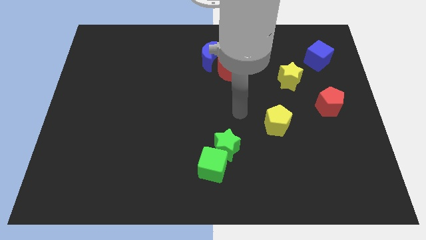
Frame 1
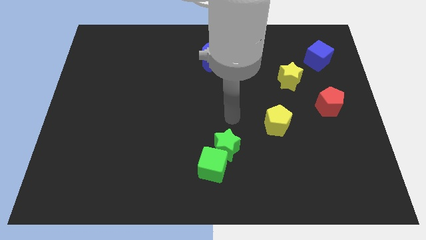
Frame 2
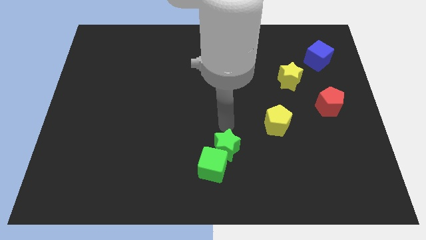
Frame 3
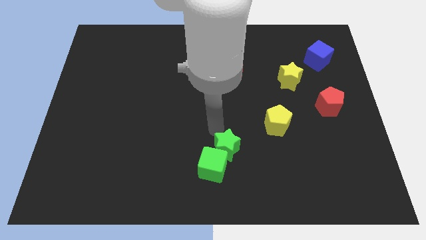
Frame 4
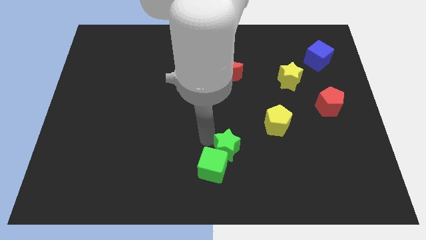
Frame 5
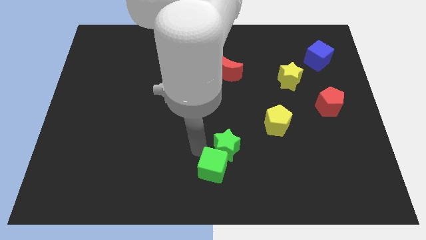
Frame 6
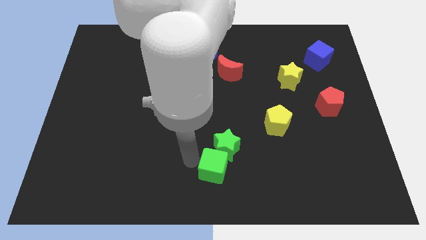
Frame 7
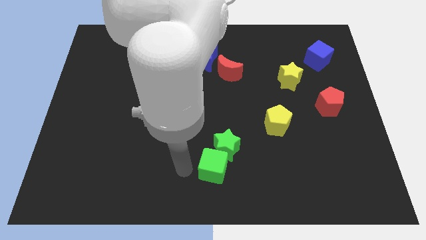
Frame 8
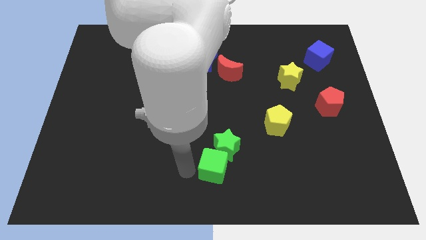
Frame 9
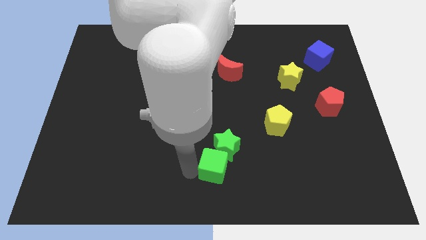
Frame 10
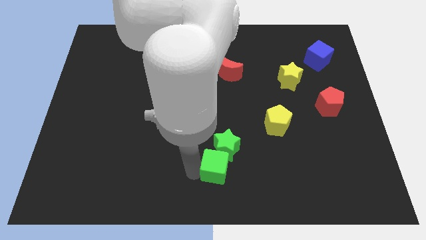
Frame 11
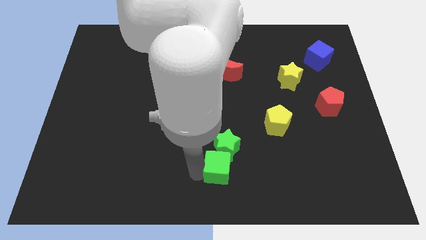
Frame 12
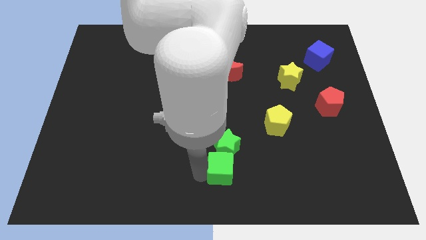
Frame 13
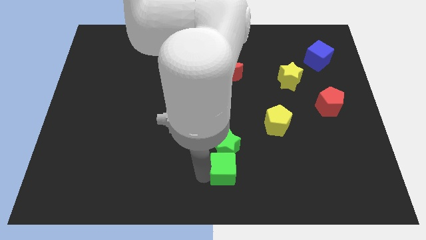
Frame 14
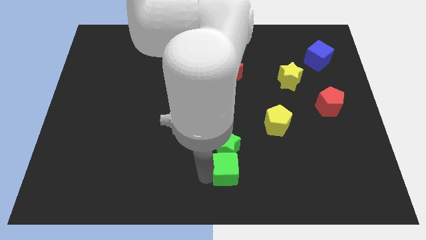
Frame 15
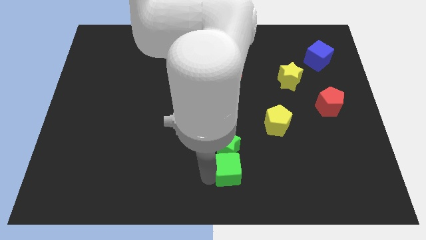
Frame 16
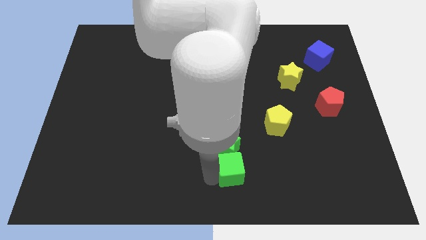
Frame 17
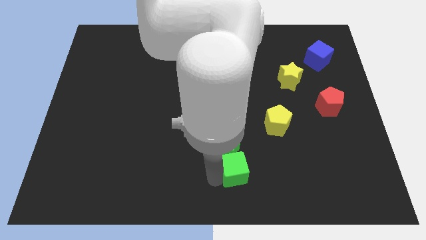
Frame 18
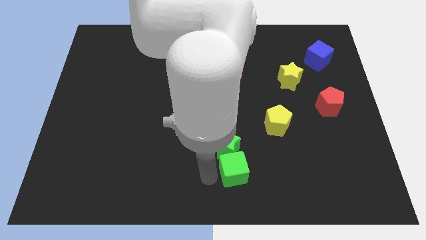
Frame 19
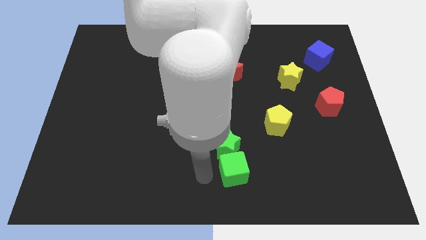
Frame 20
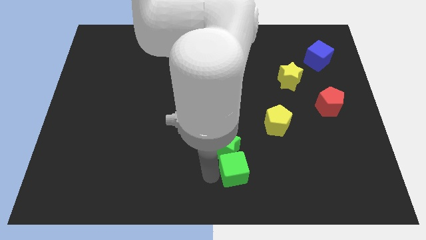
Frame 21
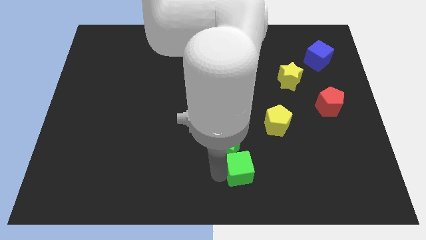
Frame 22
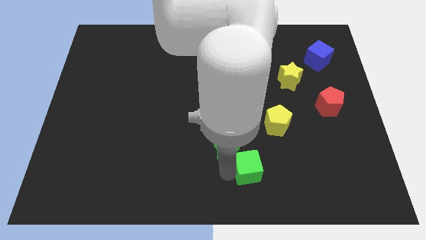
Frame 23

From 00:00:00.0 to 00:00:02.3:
move the green cube to the right a little bit

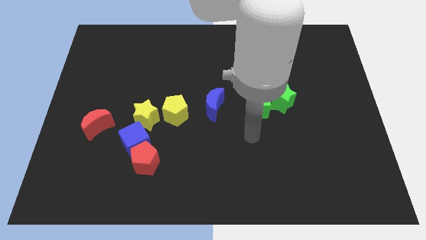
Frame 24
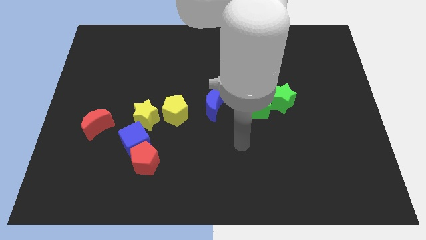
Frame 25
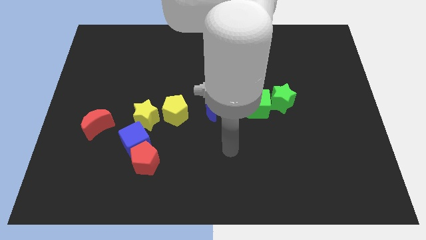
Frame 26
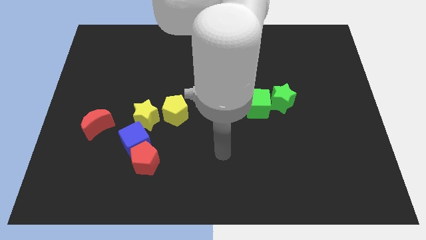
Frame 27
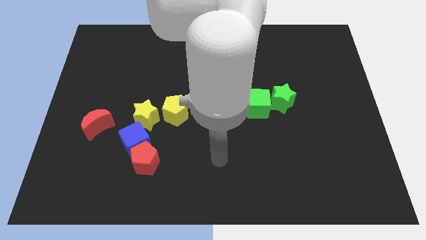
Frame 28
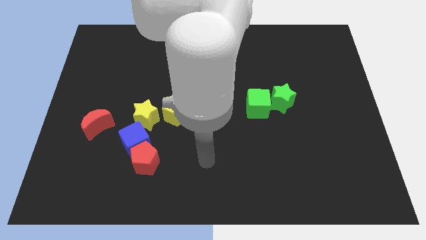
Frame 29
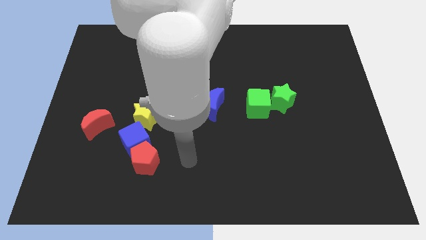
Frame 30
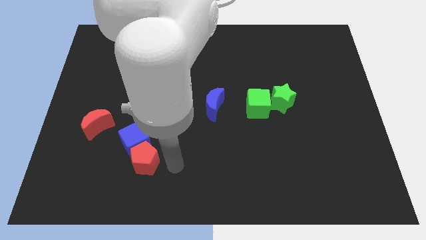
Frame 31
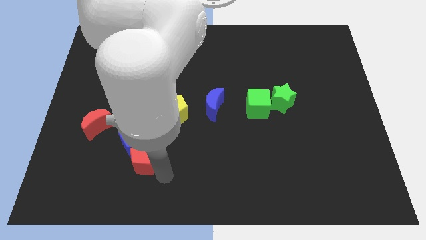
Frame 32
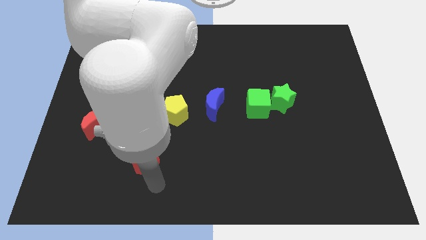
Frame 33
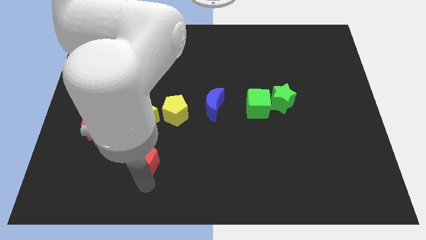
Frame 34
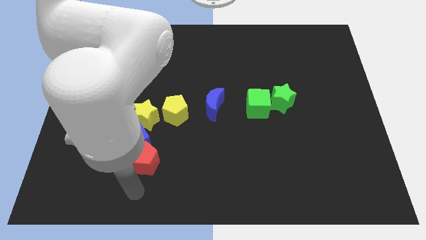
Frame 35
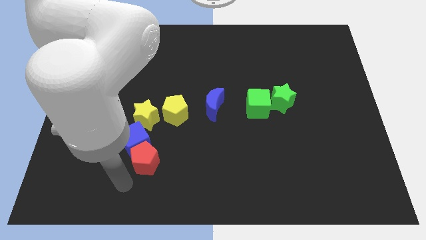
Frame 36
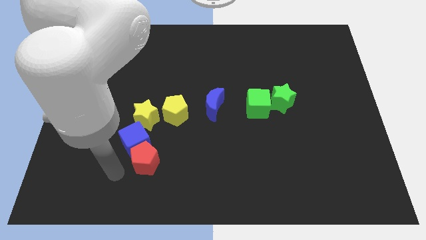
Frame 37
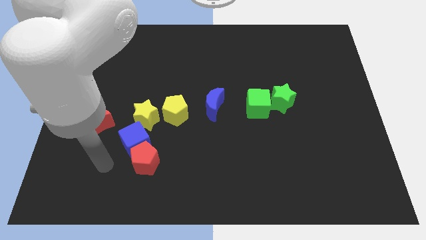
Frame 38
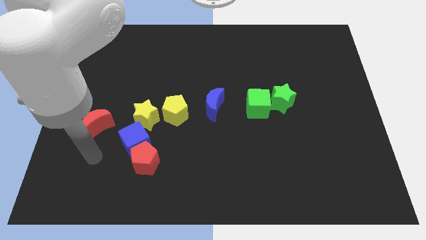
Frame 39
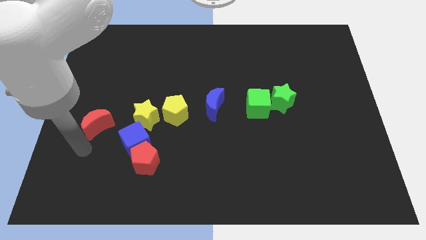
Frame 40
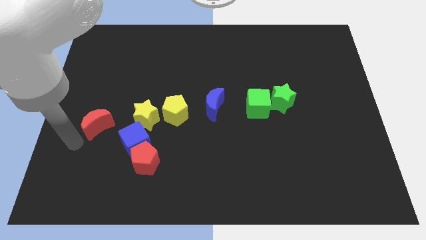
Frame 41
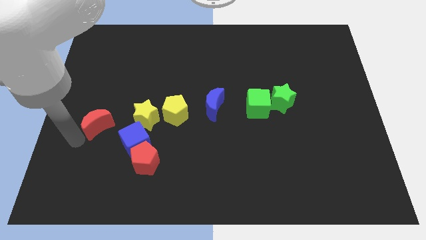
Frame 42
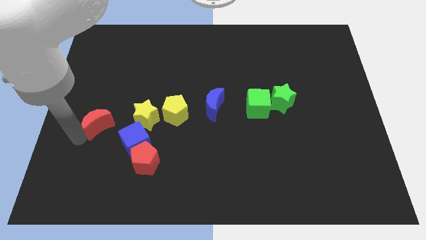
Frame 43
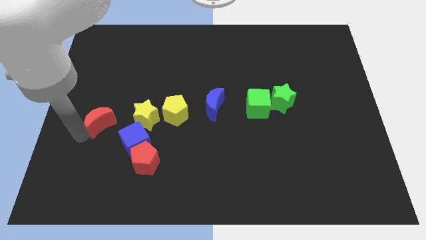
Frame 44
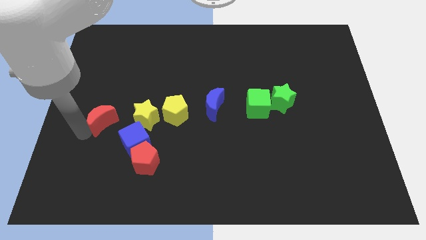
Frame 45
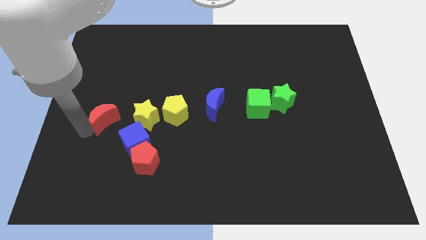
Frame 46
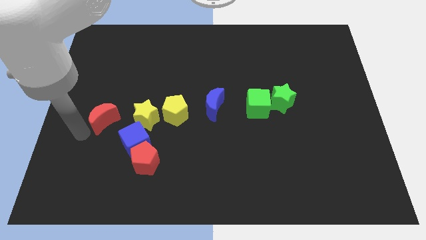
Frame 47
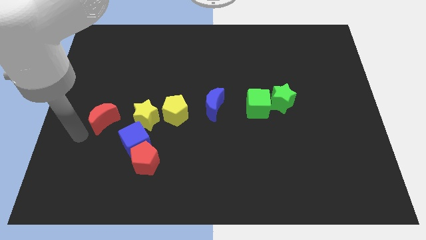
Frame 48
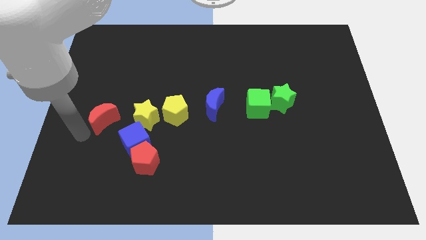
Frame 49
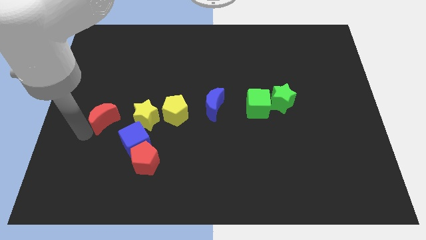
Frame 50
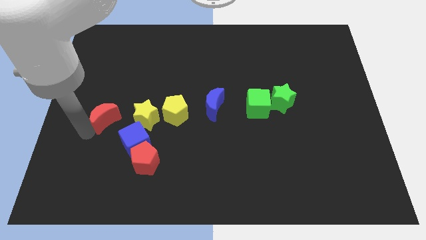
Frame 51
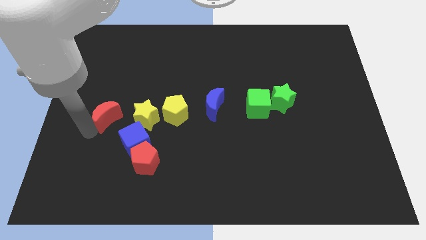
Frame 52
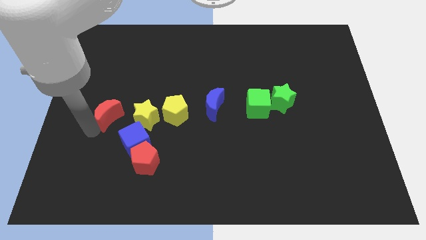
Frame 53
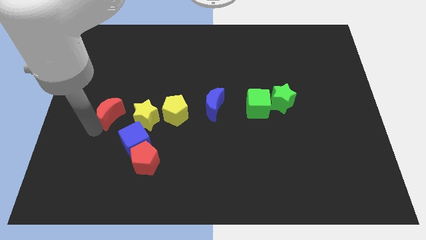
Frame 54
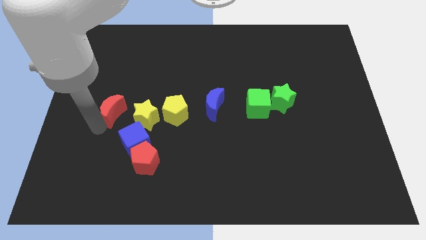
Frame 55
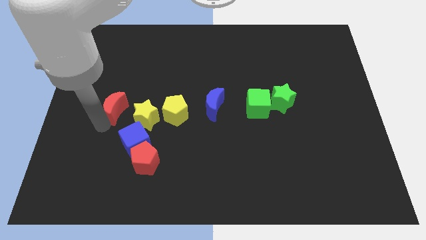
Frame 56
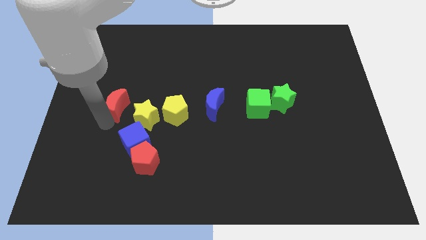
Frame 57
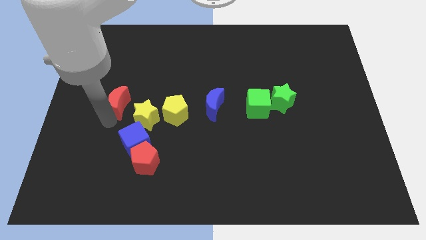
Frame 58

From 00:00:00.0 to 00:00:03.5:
slide the red moon up and to the right a little

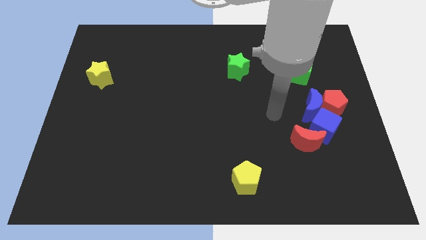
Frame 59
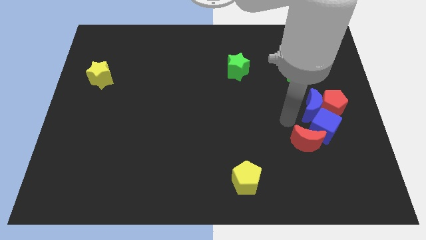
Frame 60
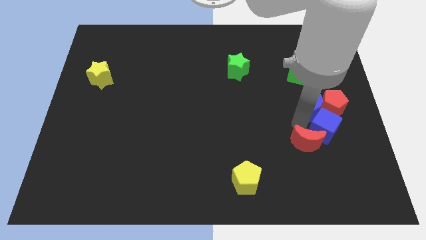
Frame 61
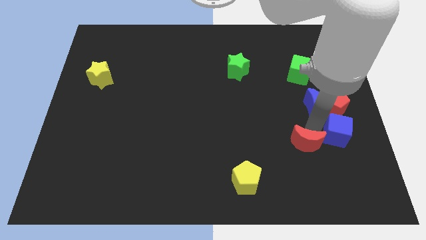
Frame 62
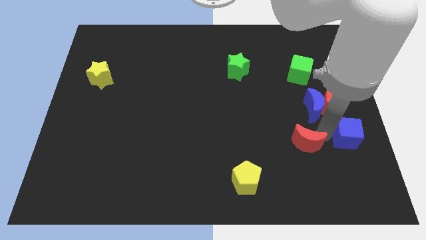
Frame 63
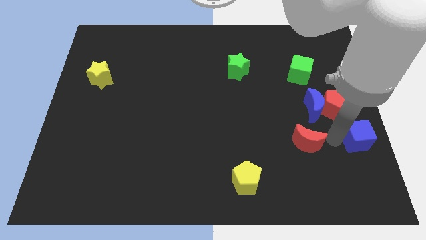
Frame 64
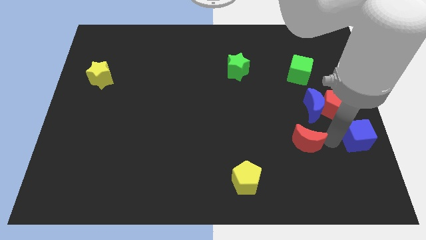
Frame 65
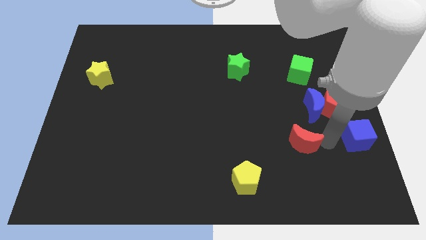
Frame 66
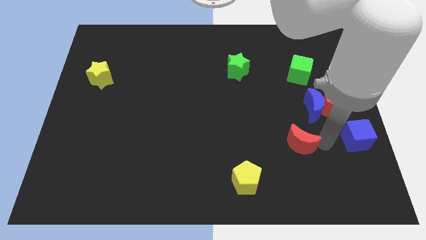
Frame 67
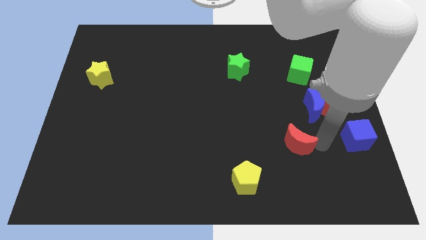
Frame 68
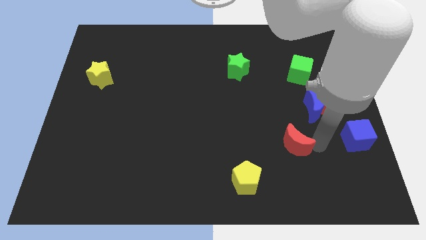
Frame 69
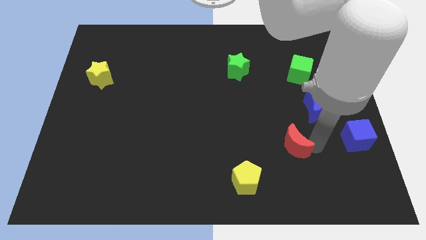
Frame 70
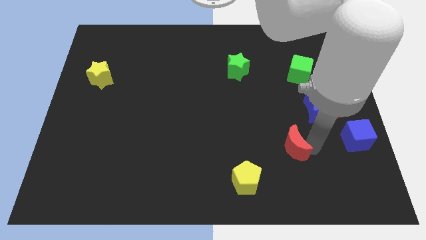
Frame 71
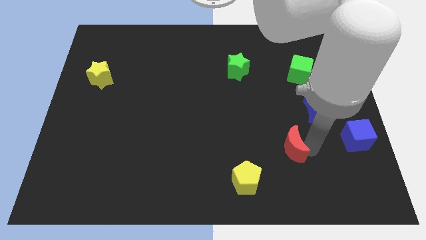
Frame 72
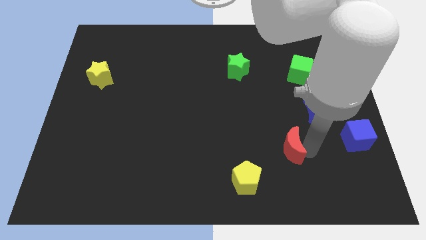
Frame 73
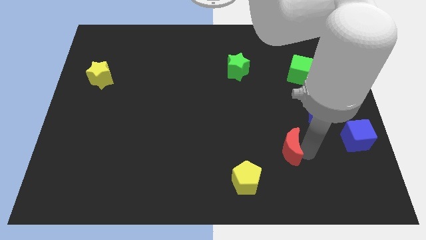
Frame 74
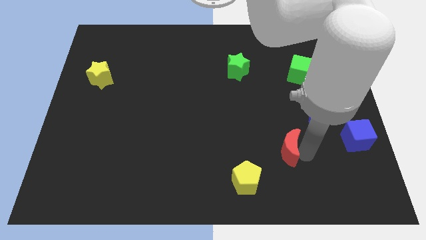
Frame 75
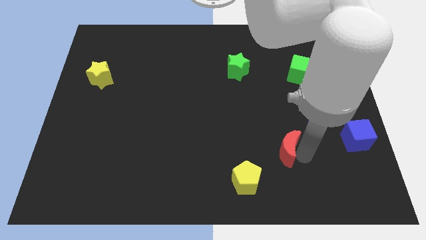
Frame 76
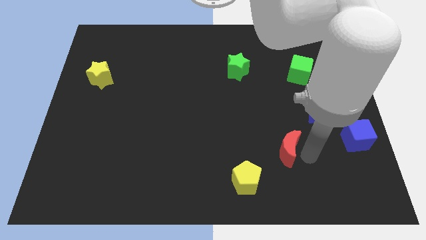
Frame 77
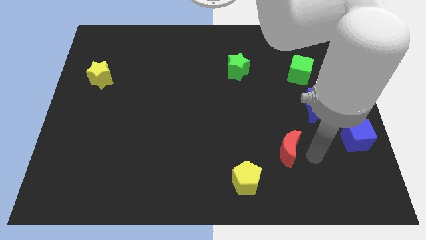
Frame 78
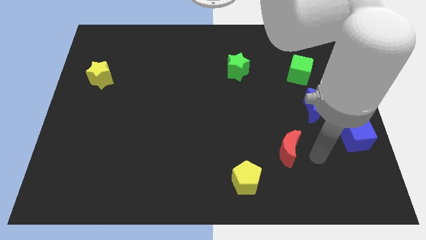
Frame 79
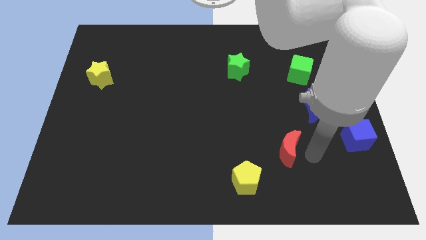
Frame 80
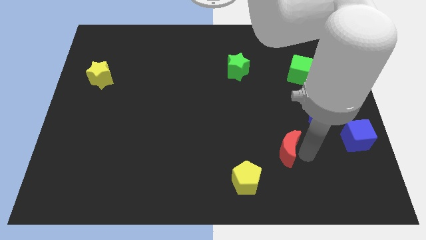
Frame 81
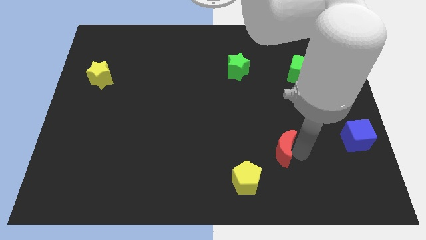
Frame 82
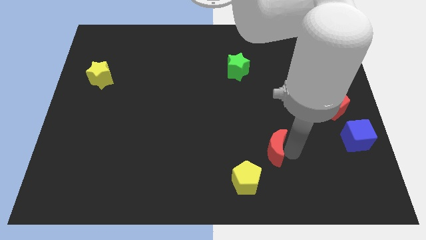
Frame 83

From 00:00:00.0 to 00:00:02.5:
slightly slide the red moon left
